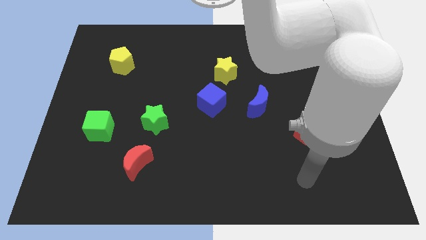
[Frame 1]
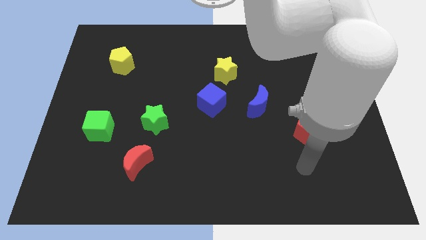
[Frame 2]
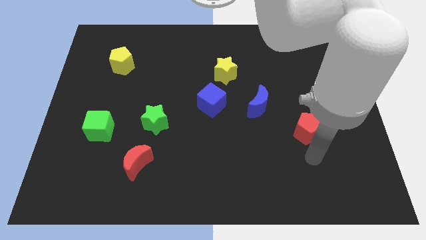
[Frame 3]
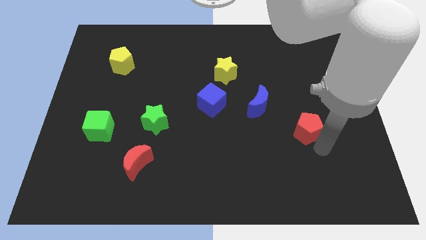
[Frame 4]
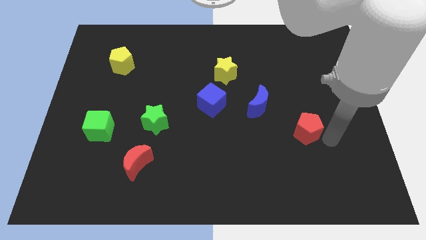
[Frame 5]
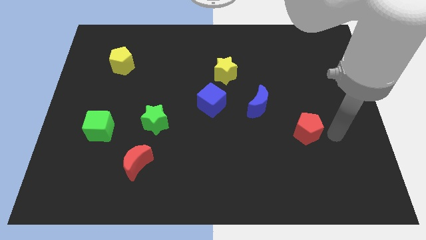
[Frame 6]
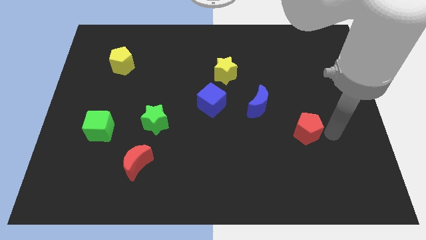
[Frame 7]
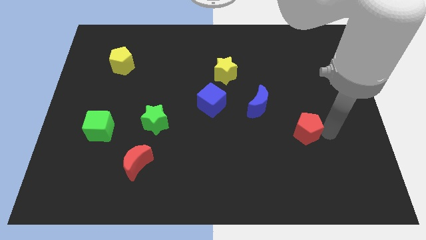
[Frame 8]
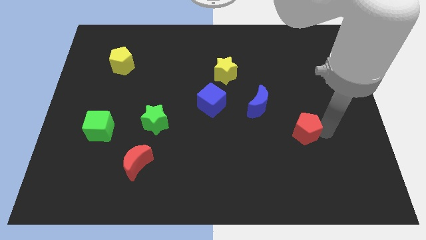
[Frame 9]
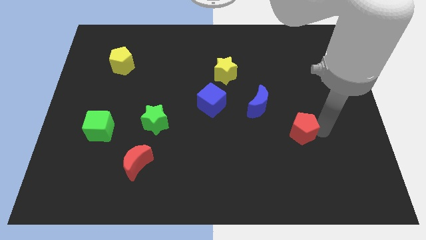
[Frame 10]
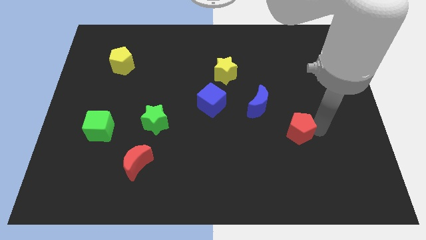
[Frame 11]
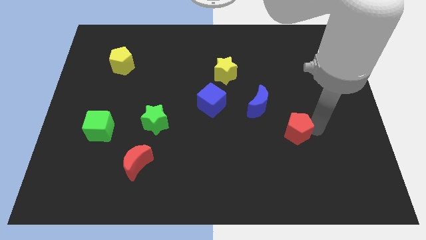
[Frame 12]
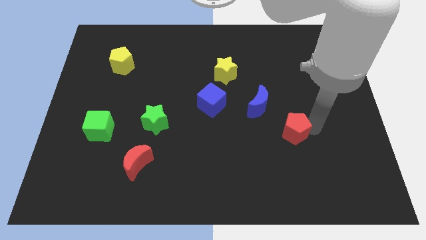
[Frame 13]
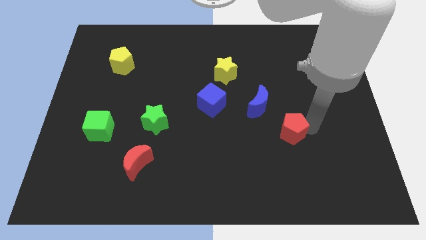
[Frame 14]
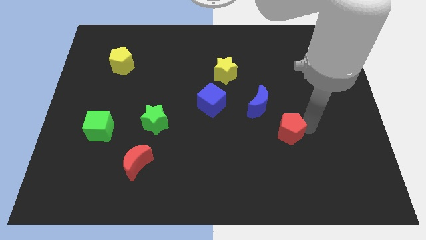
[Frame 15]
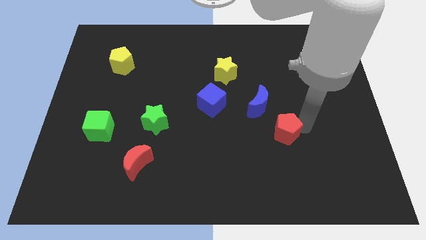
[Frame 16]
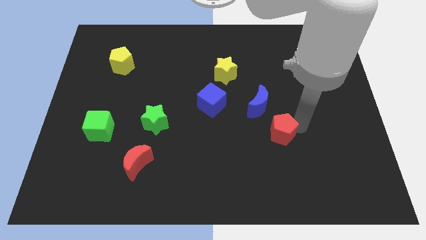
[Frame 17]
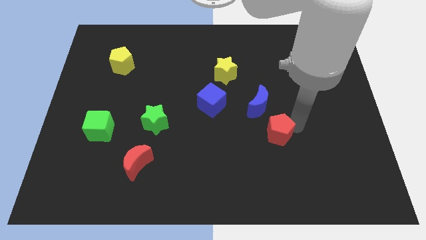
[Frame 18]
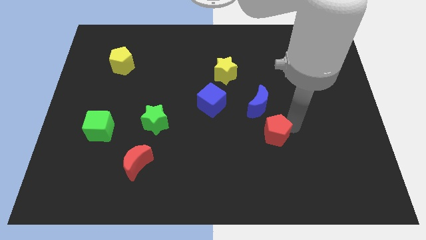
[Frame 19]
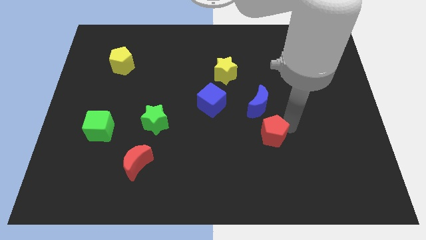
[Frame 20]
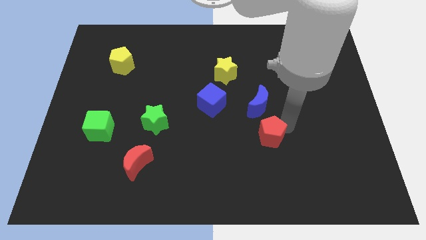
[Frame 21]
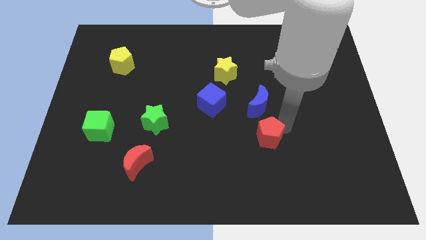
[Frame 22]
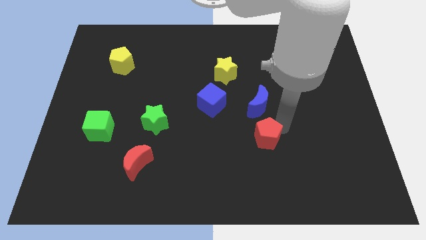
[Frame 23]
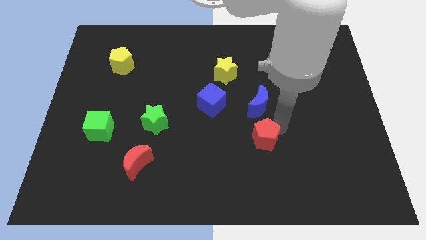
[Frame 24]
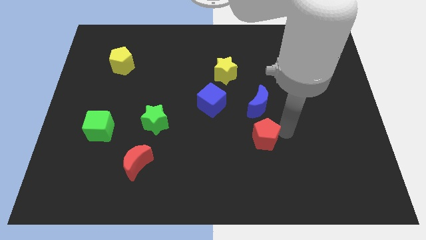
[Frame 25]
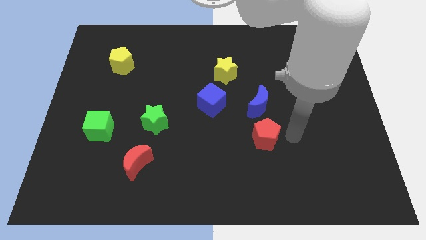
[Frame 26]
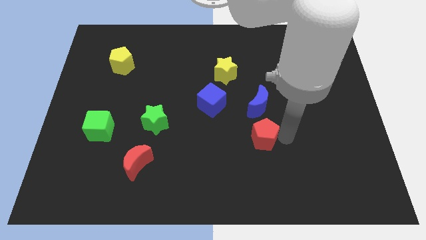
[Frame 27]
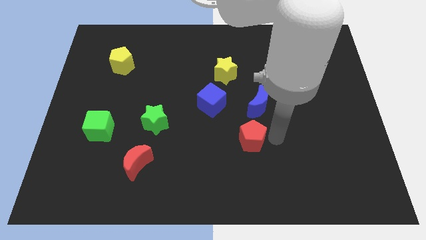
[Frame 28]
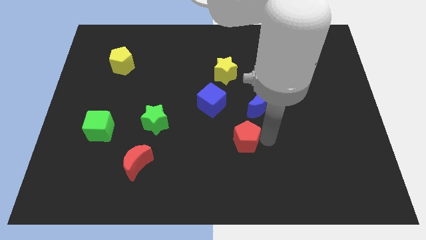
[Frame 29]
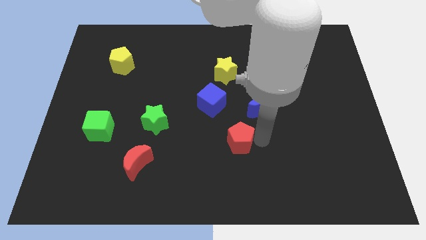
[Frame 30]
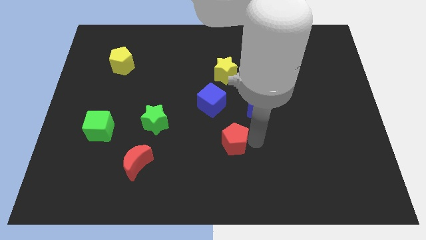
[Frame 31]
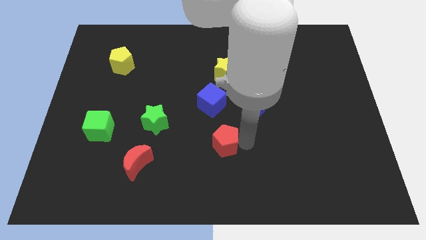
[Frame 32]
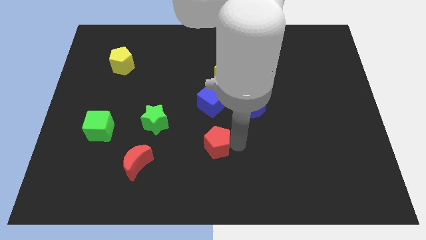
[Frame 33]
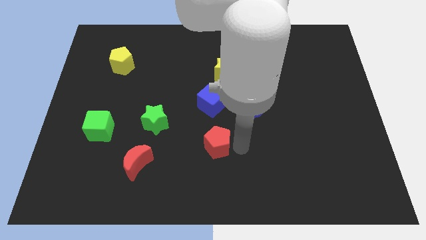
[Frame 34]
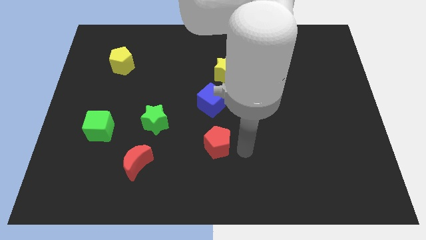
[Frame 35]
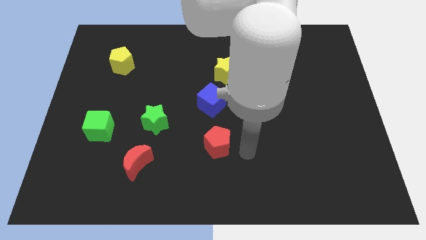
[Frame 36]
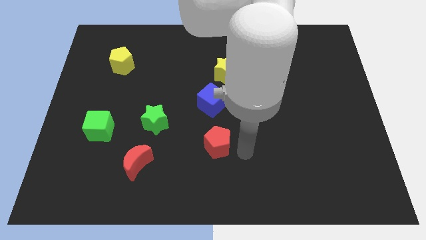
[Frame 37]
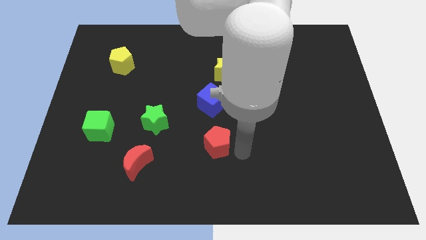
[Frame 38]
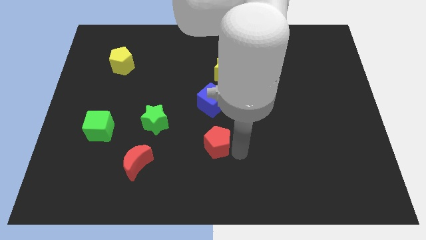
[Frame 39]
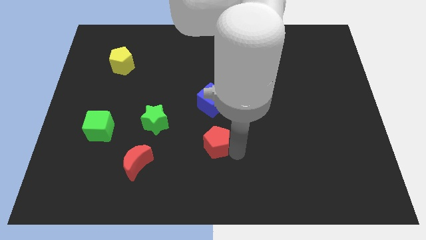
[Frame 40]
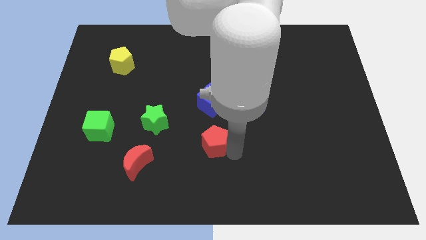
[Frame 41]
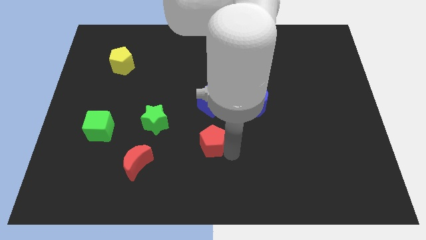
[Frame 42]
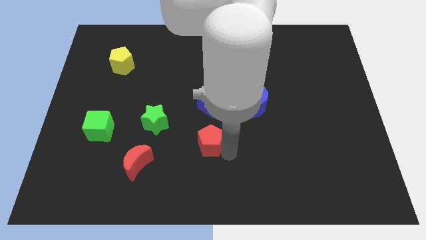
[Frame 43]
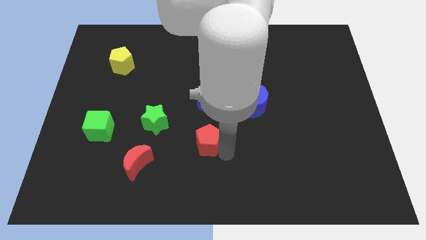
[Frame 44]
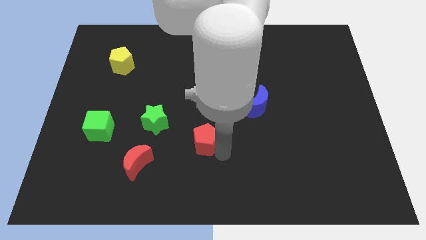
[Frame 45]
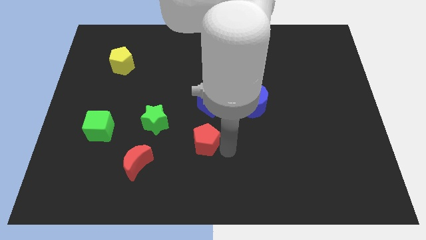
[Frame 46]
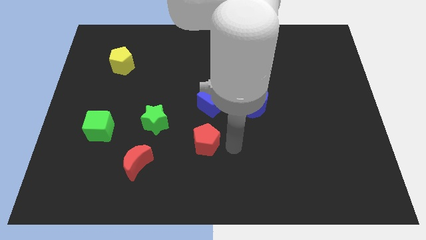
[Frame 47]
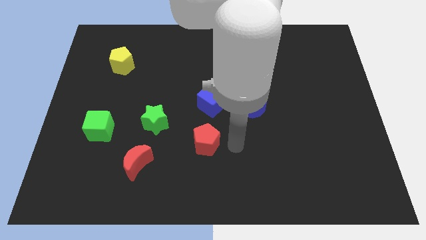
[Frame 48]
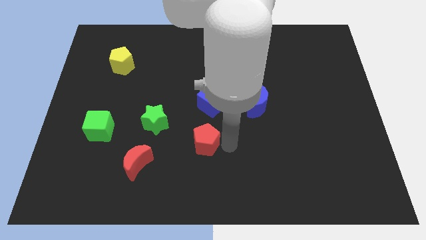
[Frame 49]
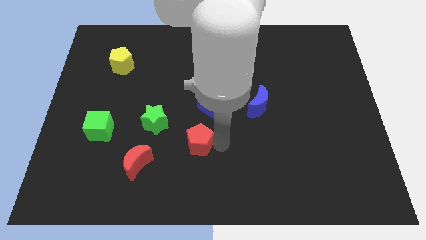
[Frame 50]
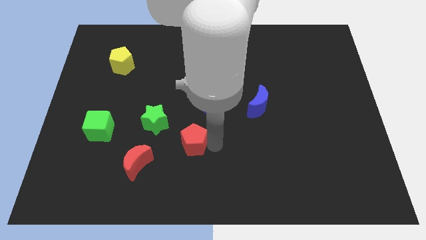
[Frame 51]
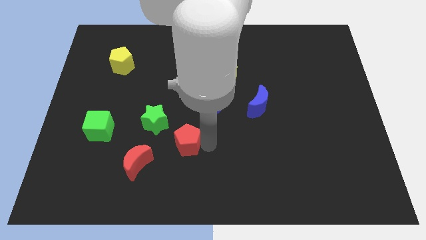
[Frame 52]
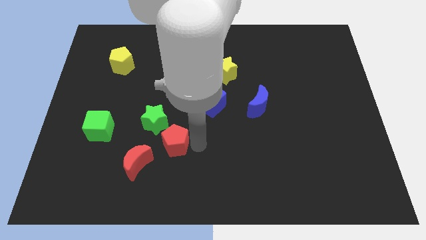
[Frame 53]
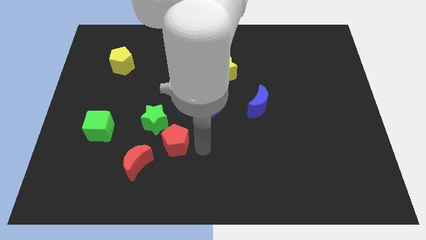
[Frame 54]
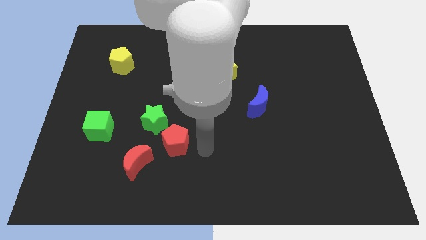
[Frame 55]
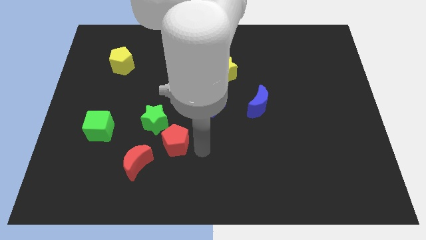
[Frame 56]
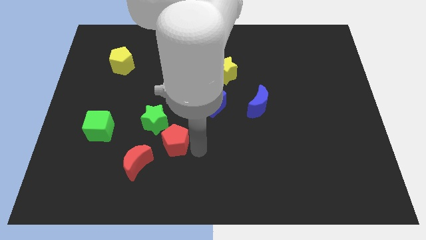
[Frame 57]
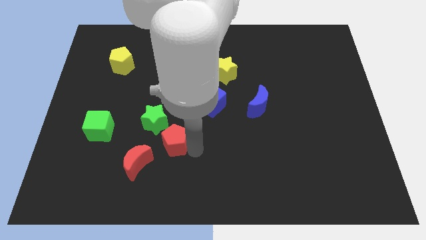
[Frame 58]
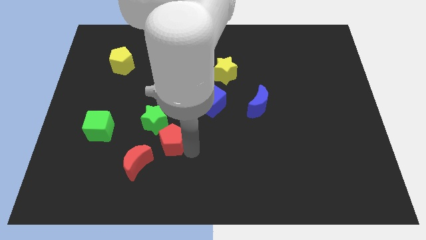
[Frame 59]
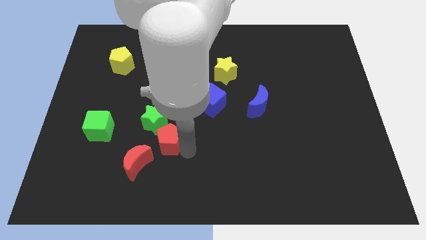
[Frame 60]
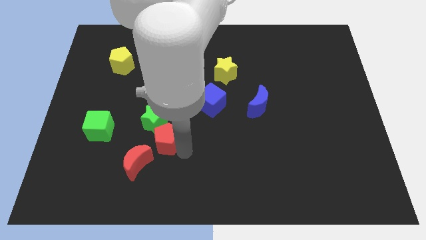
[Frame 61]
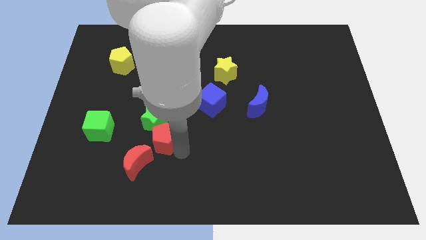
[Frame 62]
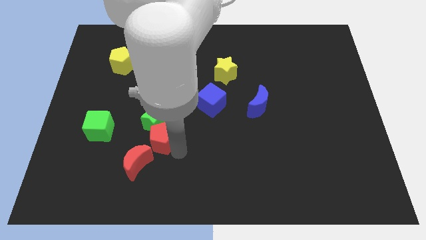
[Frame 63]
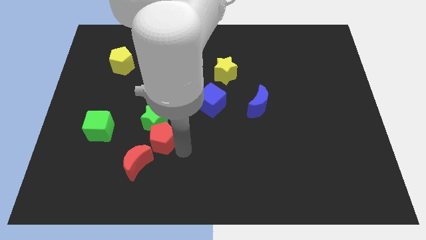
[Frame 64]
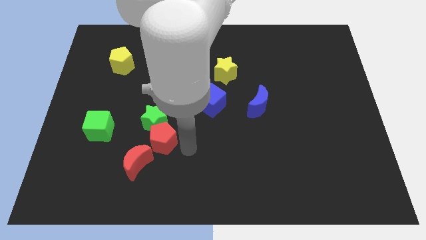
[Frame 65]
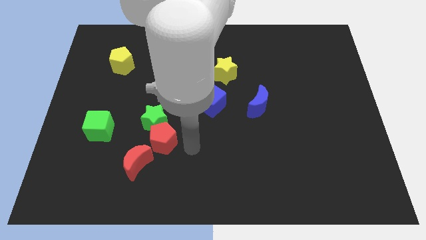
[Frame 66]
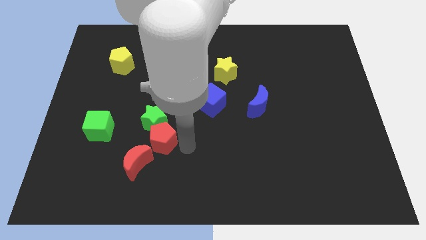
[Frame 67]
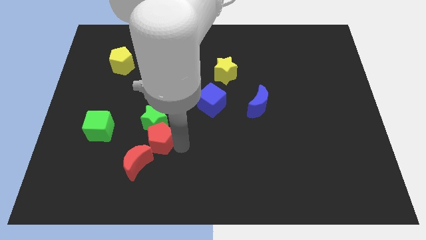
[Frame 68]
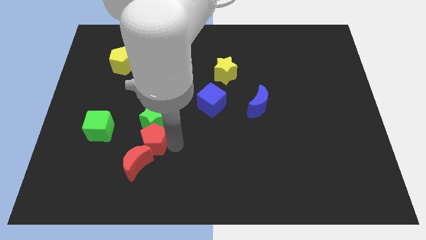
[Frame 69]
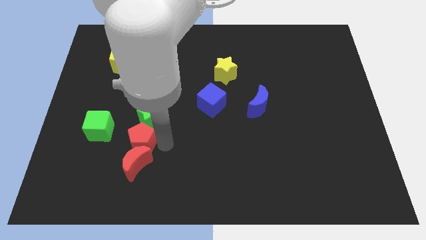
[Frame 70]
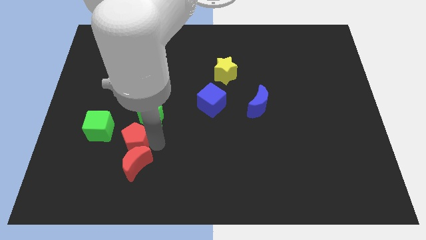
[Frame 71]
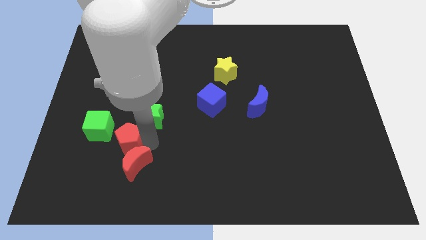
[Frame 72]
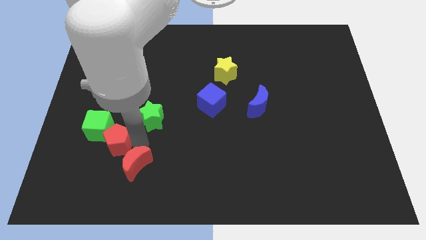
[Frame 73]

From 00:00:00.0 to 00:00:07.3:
slide the red pentagon close to the green cube
